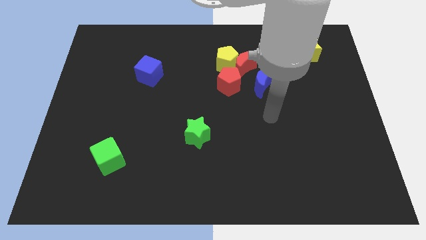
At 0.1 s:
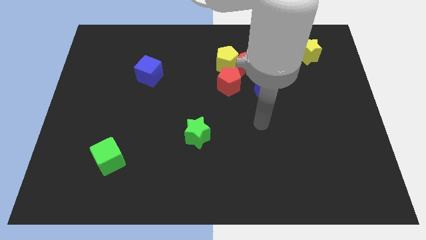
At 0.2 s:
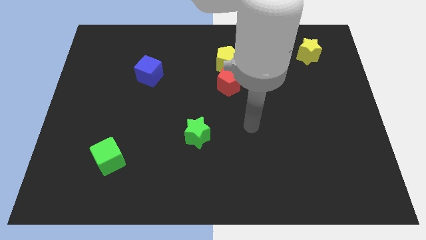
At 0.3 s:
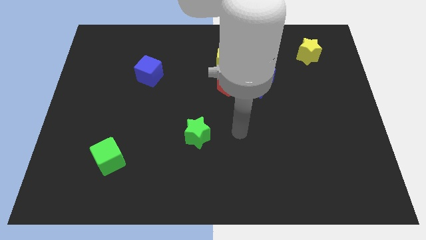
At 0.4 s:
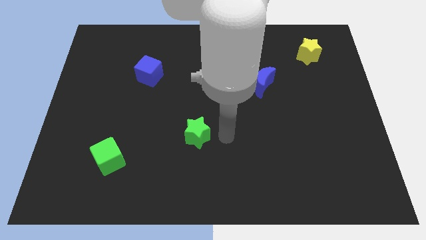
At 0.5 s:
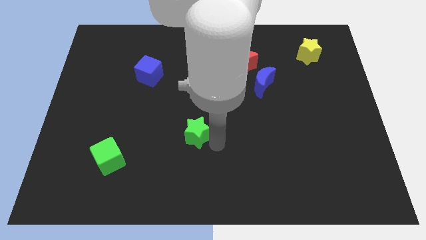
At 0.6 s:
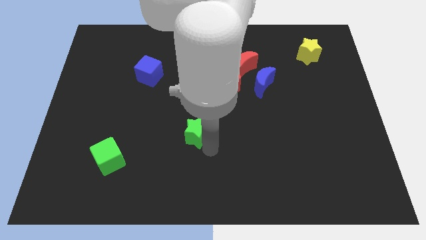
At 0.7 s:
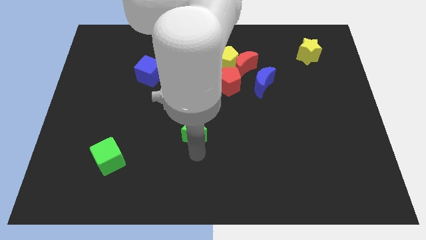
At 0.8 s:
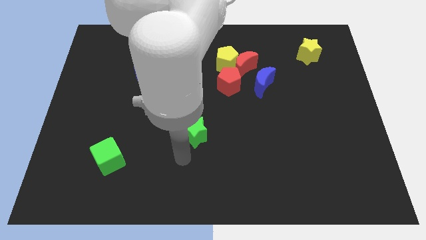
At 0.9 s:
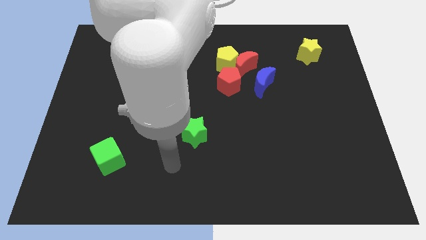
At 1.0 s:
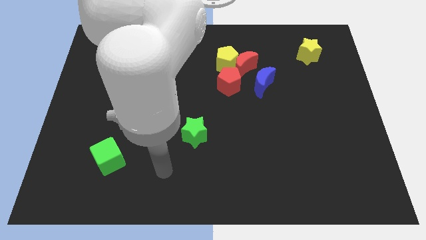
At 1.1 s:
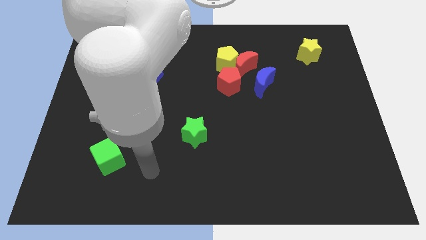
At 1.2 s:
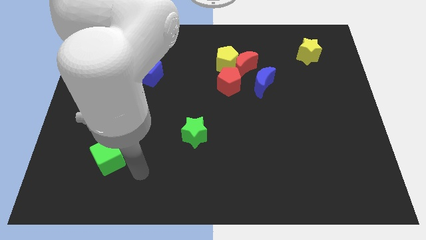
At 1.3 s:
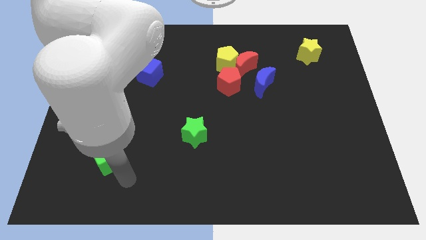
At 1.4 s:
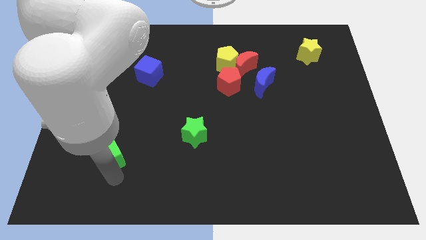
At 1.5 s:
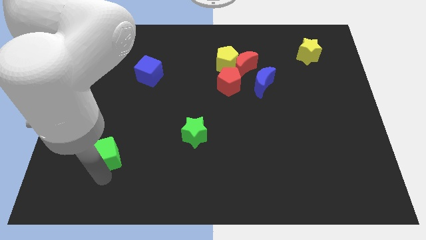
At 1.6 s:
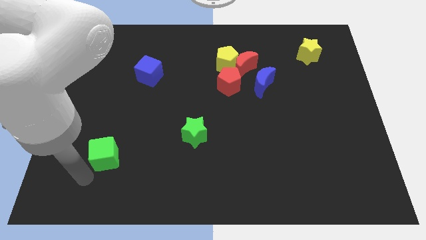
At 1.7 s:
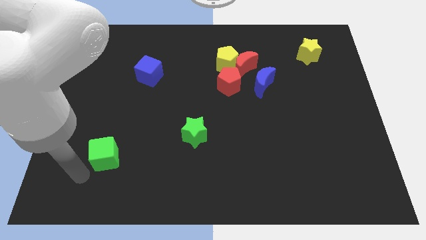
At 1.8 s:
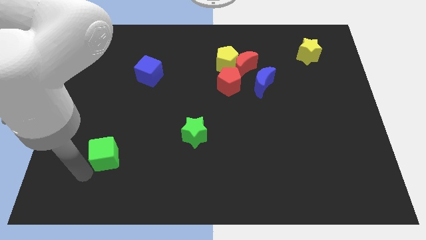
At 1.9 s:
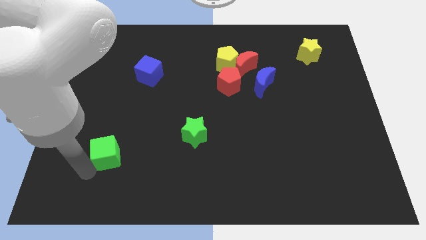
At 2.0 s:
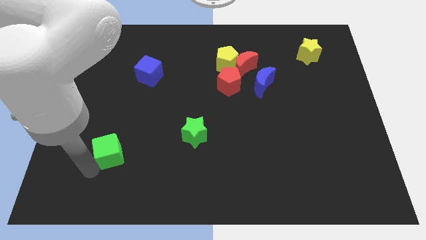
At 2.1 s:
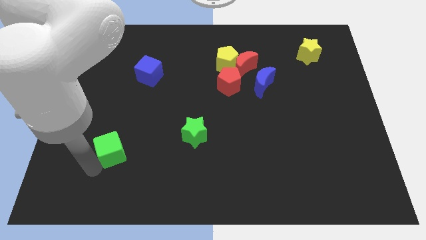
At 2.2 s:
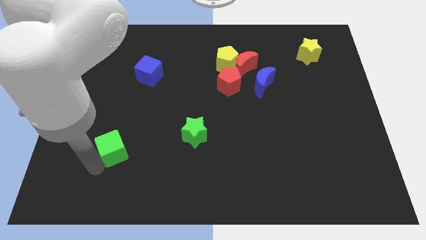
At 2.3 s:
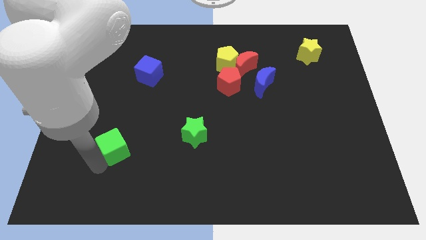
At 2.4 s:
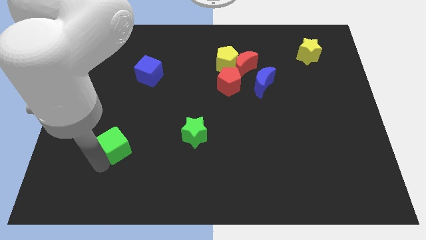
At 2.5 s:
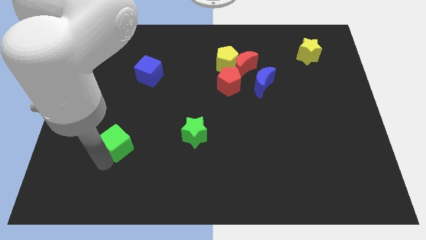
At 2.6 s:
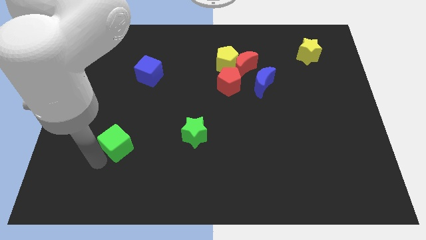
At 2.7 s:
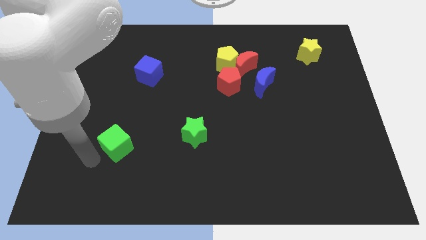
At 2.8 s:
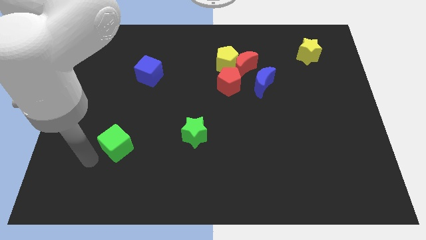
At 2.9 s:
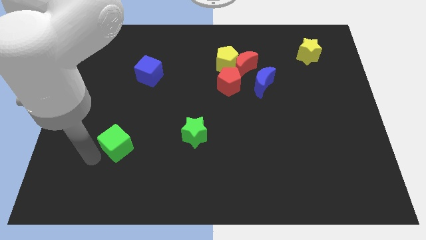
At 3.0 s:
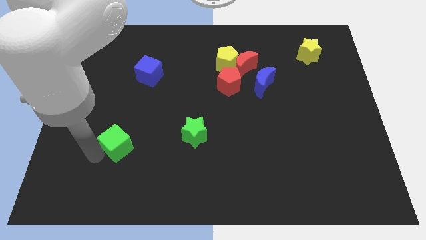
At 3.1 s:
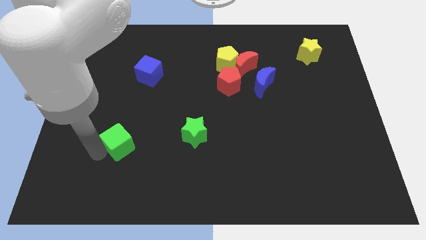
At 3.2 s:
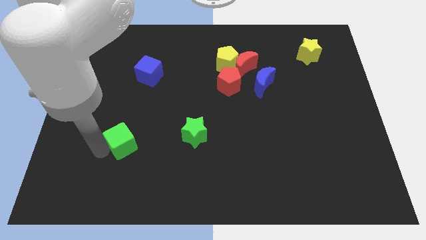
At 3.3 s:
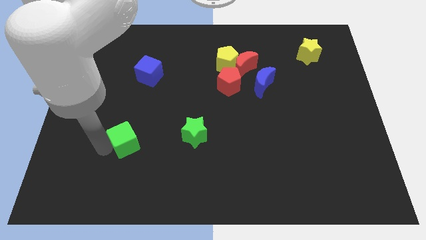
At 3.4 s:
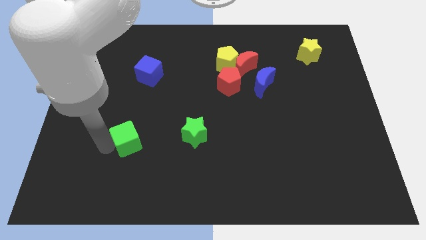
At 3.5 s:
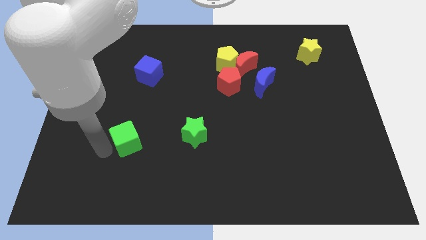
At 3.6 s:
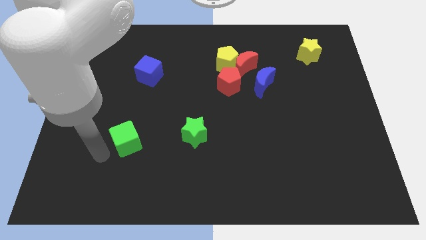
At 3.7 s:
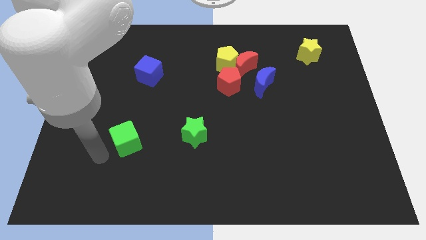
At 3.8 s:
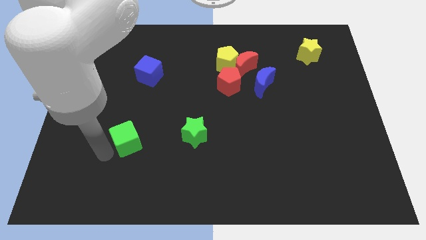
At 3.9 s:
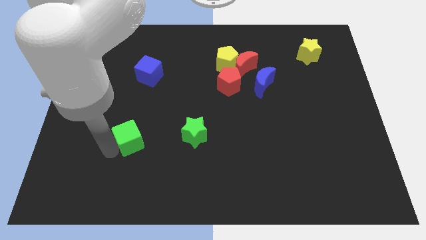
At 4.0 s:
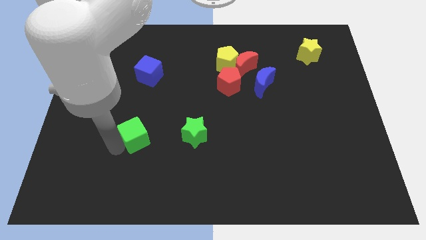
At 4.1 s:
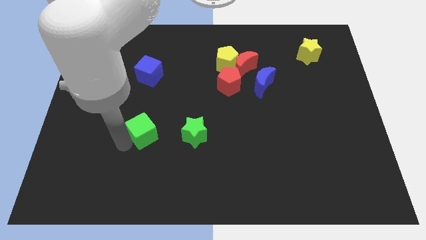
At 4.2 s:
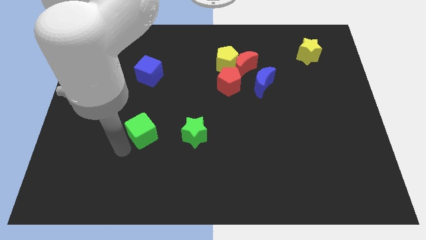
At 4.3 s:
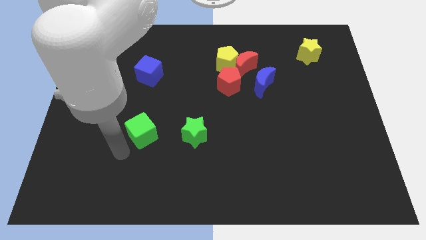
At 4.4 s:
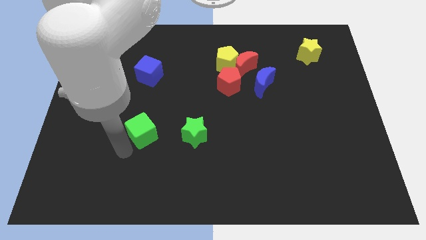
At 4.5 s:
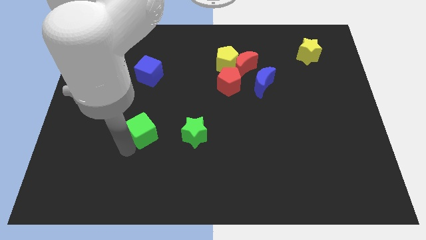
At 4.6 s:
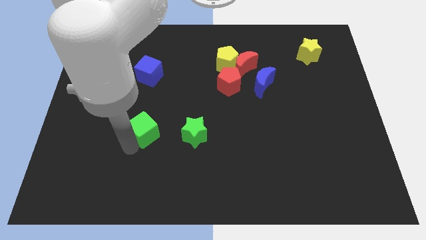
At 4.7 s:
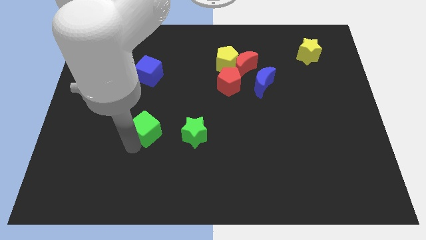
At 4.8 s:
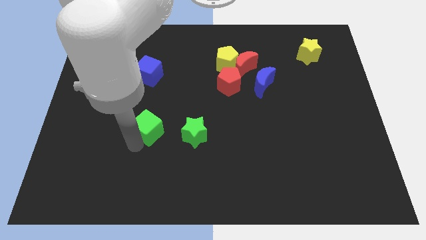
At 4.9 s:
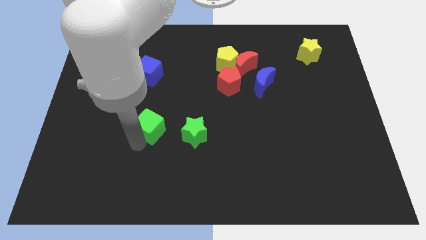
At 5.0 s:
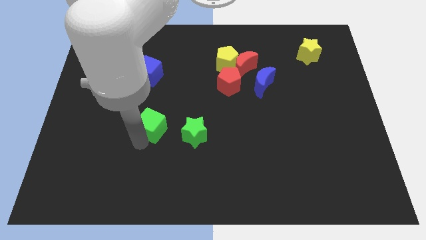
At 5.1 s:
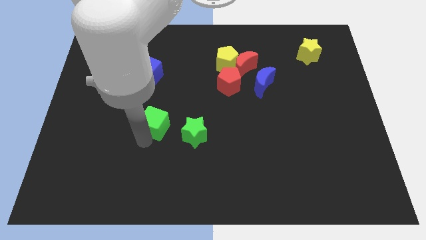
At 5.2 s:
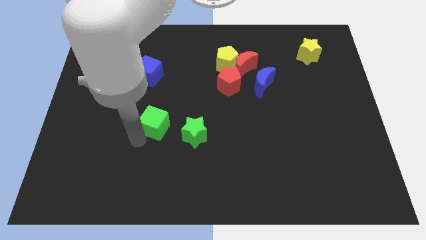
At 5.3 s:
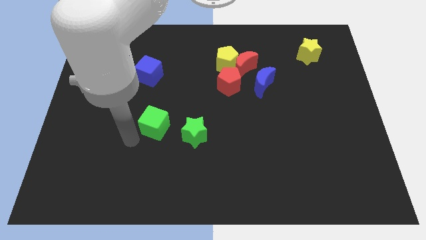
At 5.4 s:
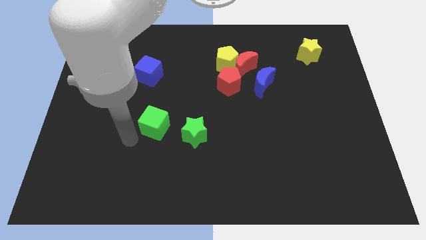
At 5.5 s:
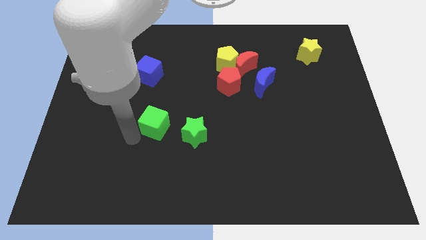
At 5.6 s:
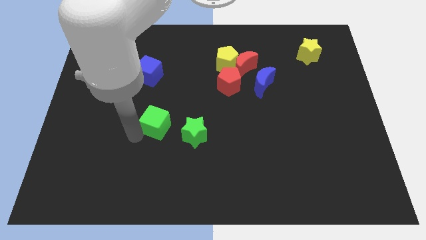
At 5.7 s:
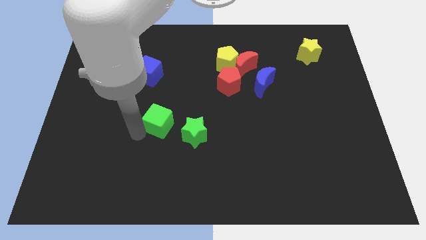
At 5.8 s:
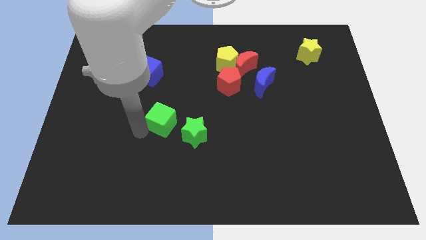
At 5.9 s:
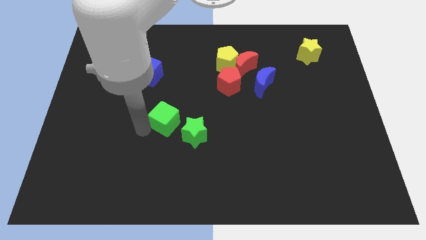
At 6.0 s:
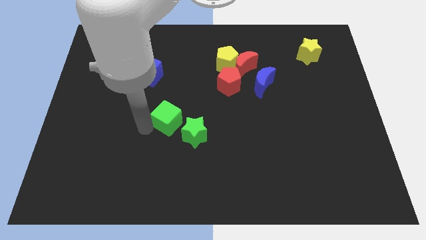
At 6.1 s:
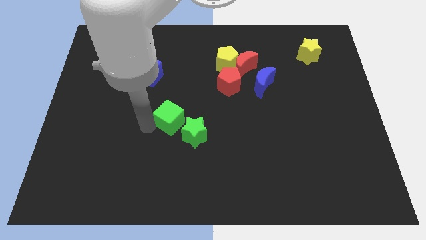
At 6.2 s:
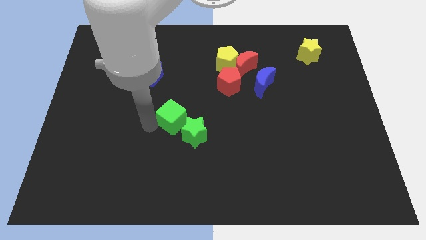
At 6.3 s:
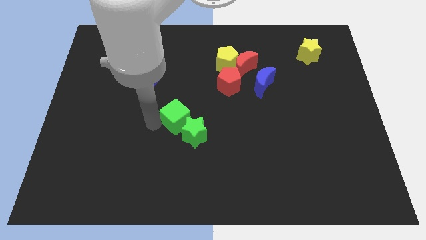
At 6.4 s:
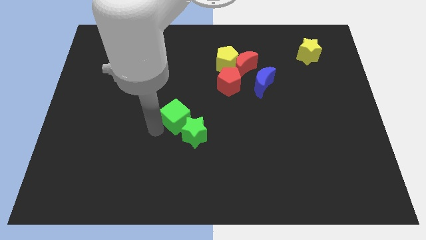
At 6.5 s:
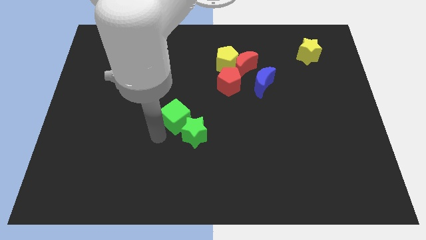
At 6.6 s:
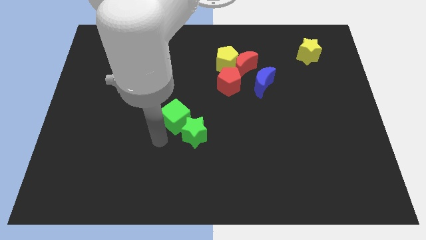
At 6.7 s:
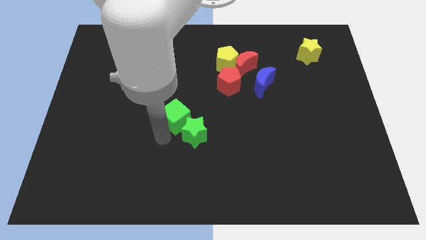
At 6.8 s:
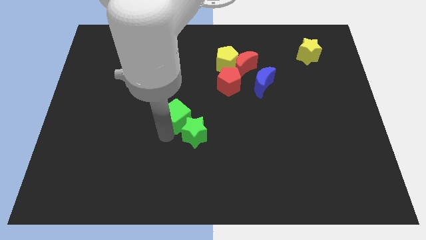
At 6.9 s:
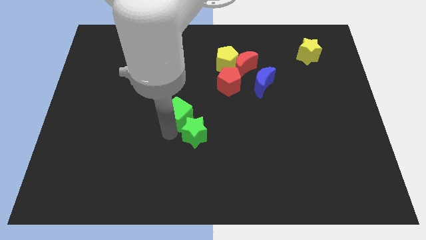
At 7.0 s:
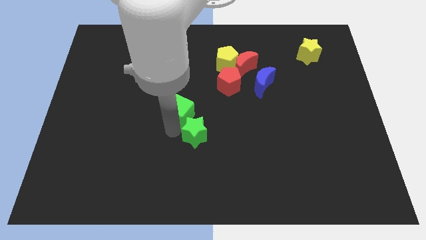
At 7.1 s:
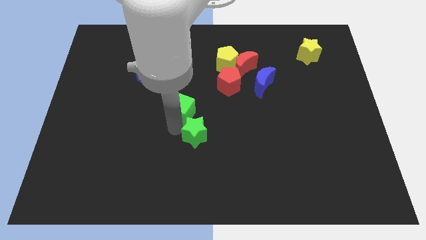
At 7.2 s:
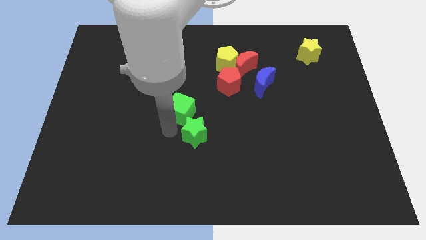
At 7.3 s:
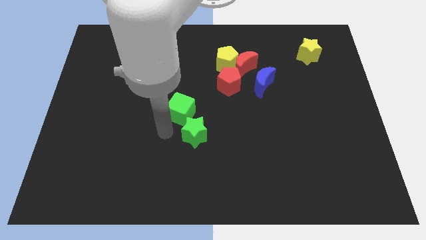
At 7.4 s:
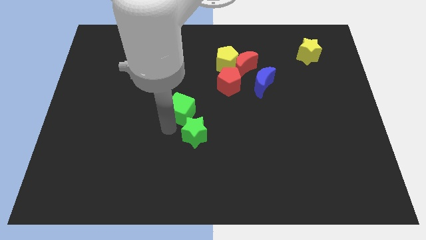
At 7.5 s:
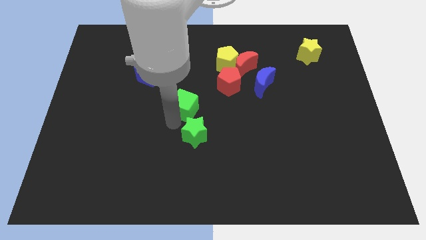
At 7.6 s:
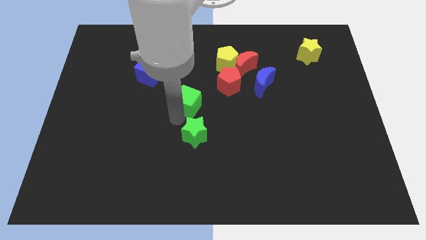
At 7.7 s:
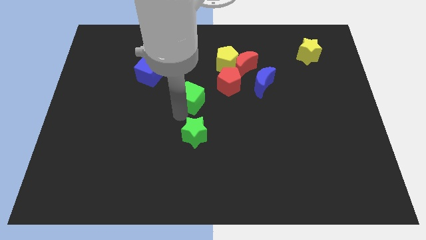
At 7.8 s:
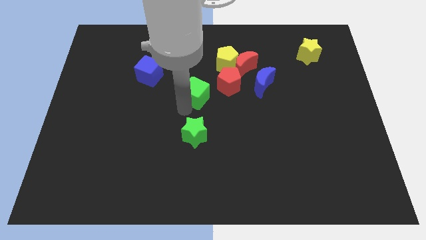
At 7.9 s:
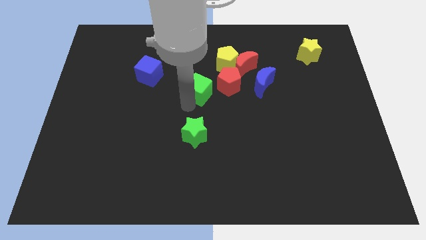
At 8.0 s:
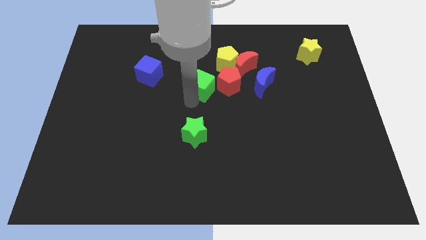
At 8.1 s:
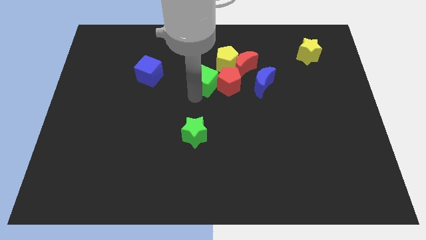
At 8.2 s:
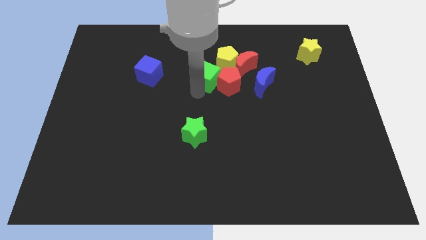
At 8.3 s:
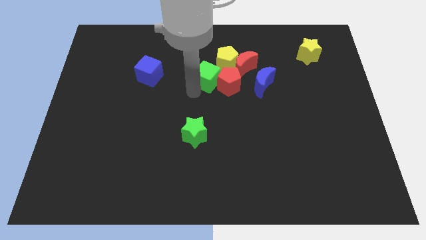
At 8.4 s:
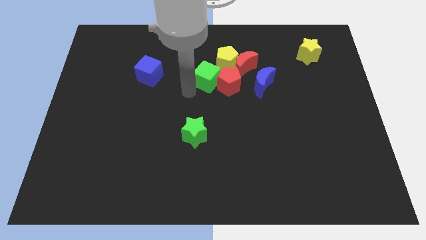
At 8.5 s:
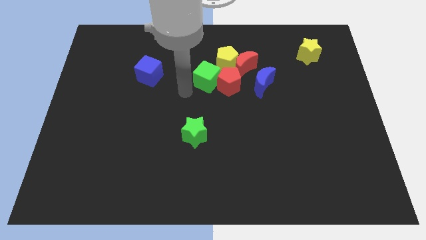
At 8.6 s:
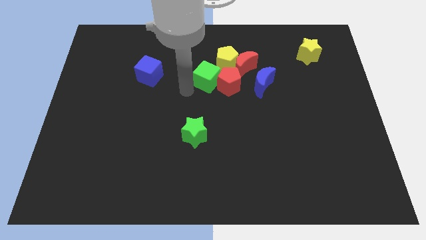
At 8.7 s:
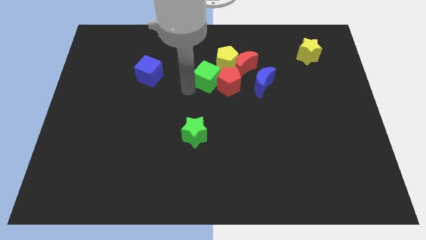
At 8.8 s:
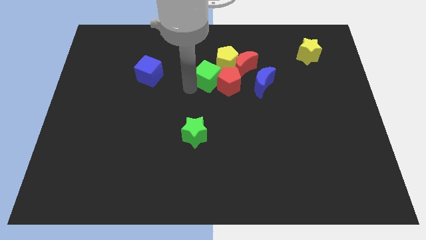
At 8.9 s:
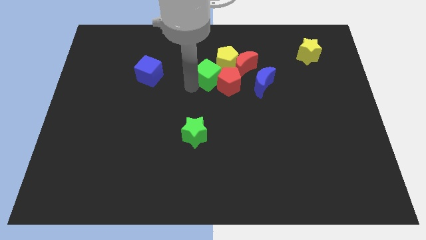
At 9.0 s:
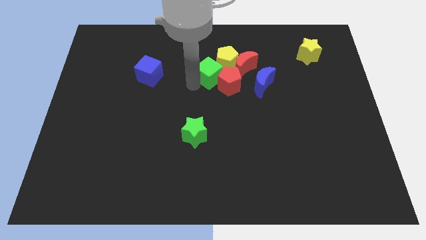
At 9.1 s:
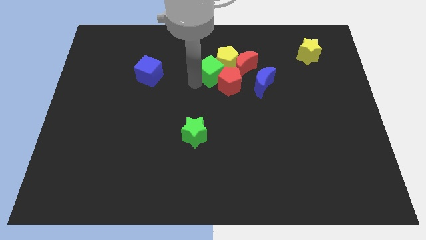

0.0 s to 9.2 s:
push the green cube towards the yellow pentagon
